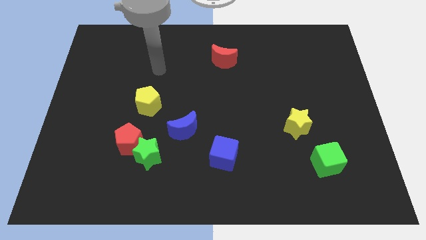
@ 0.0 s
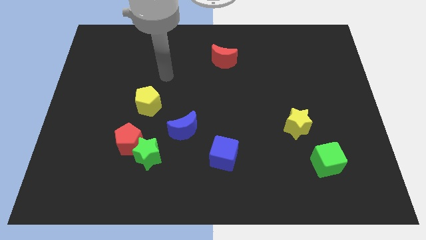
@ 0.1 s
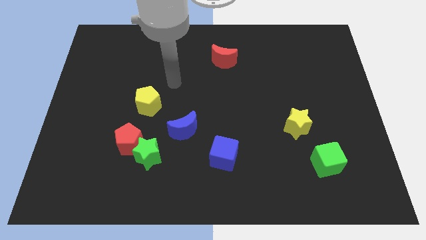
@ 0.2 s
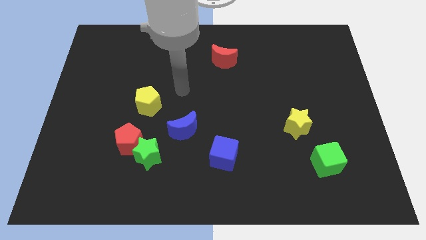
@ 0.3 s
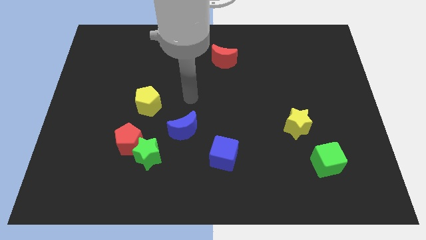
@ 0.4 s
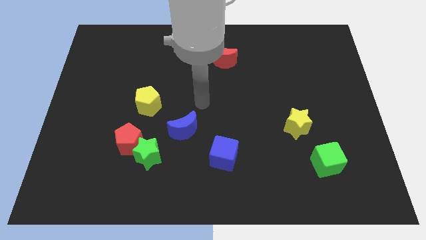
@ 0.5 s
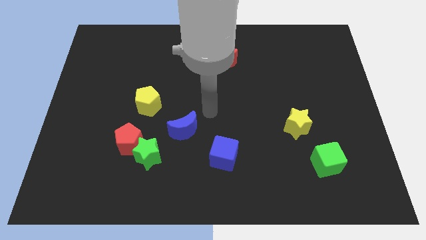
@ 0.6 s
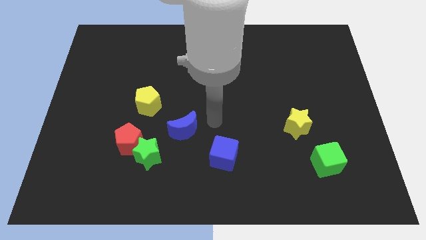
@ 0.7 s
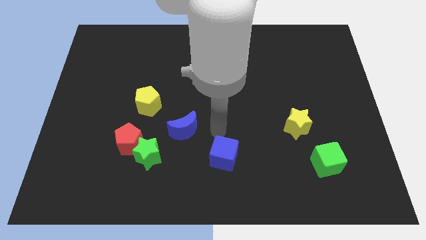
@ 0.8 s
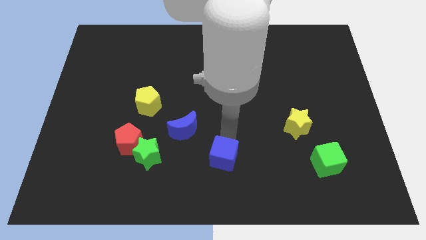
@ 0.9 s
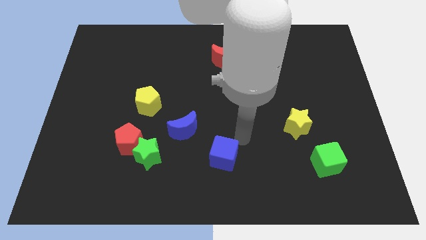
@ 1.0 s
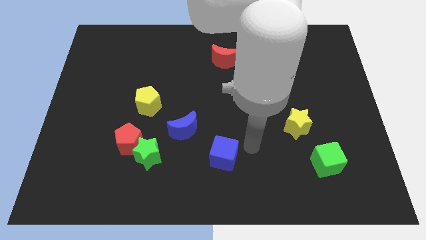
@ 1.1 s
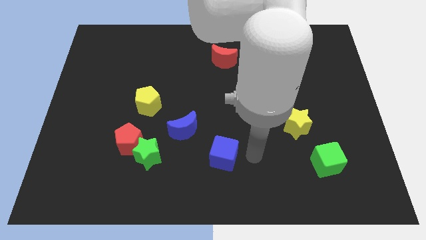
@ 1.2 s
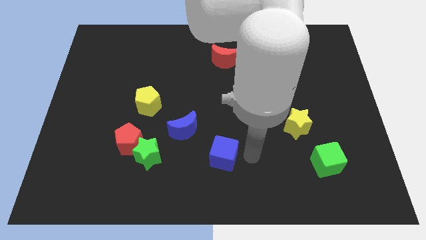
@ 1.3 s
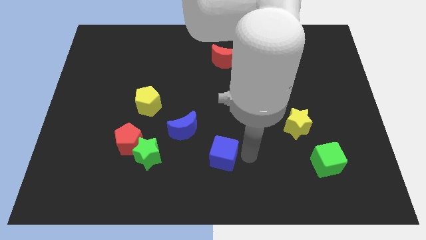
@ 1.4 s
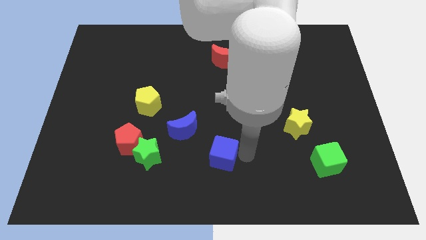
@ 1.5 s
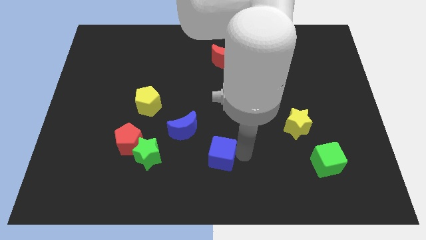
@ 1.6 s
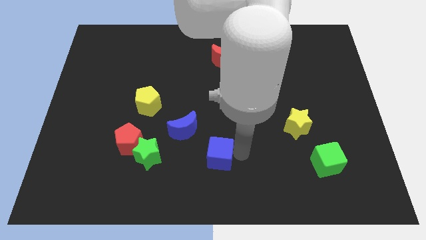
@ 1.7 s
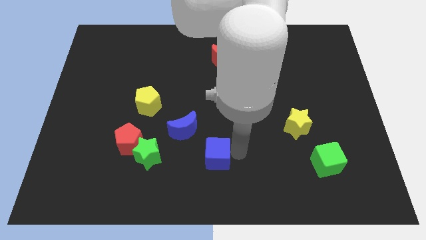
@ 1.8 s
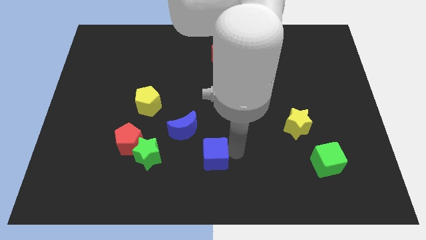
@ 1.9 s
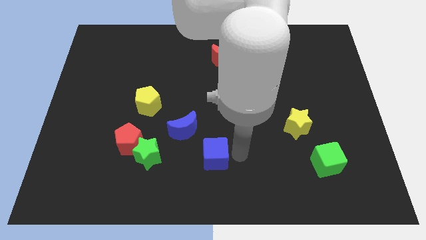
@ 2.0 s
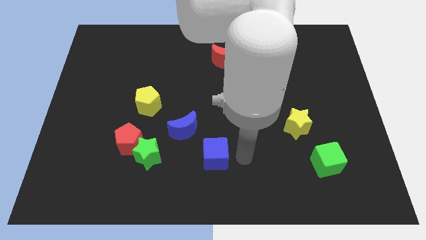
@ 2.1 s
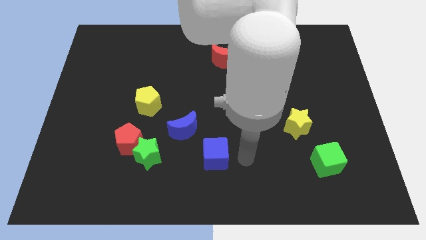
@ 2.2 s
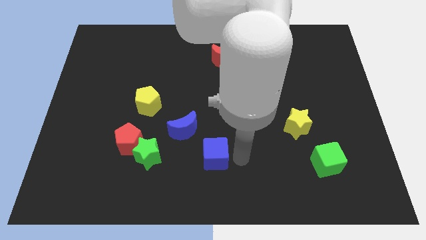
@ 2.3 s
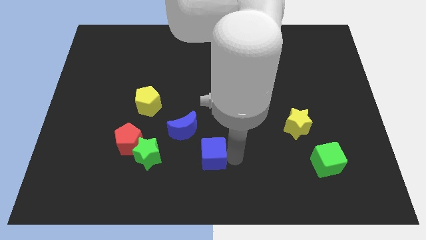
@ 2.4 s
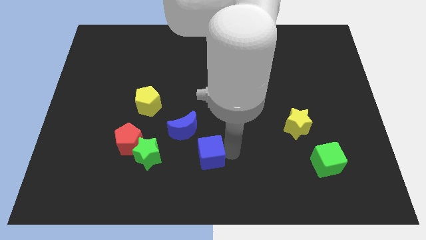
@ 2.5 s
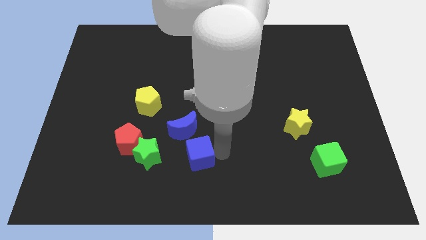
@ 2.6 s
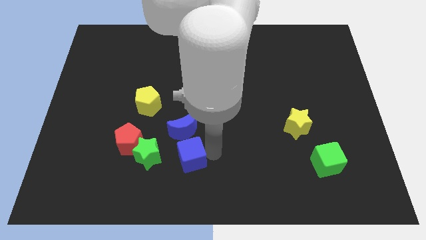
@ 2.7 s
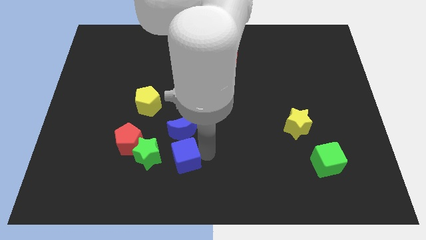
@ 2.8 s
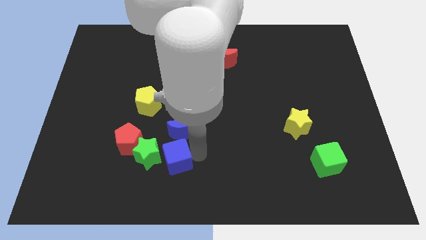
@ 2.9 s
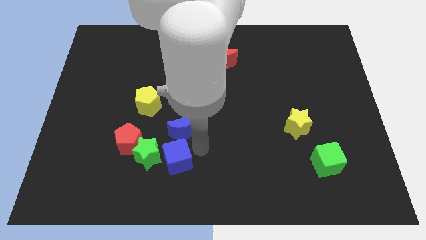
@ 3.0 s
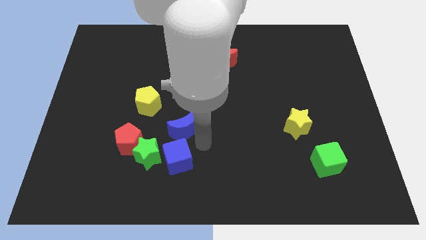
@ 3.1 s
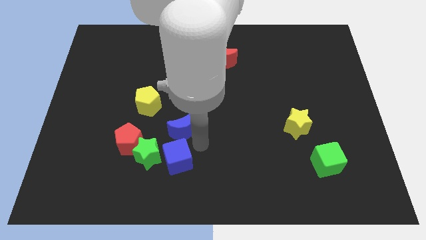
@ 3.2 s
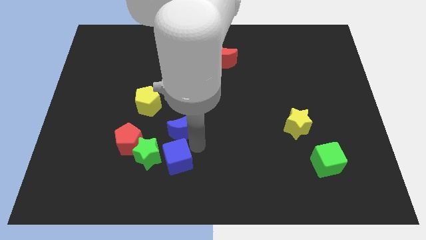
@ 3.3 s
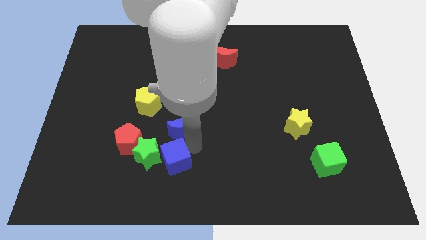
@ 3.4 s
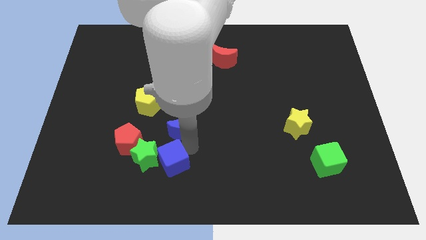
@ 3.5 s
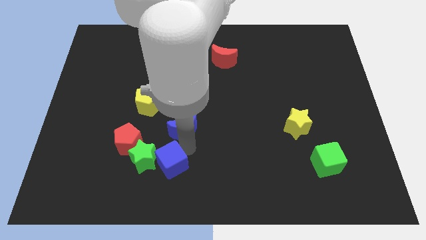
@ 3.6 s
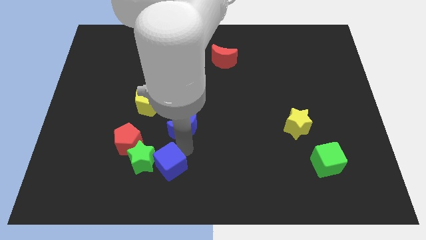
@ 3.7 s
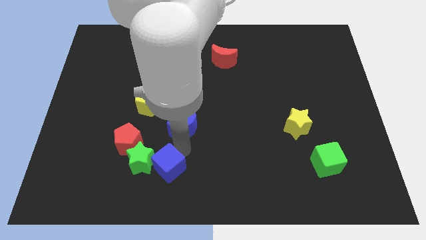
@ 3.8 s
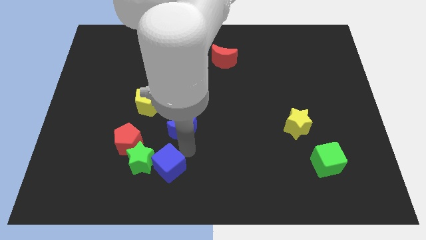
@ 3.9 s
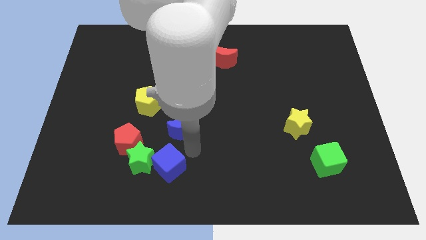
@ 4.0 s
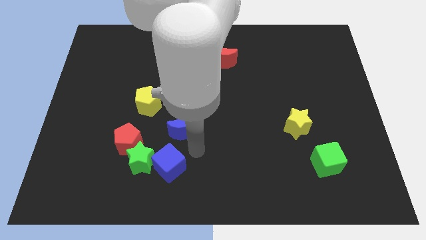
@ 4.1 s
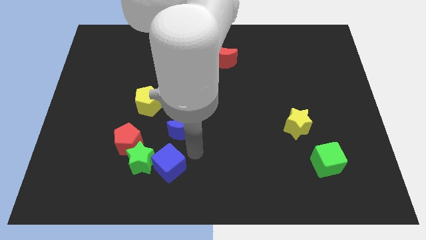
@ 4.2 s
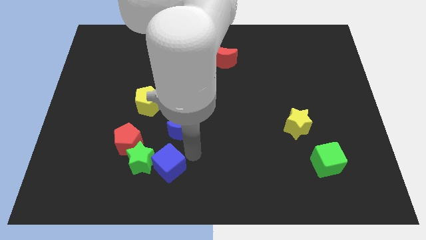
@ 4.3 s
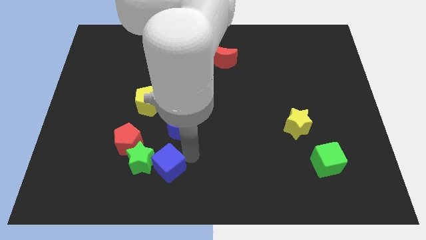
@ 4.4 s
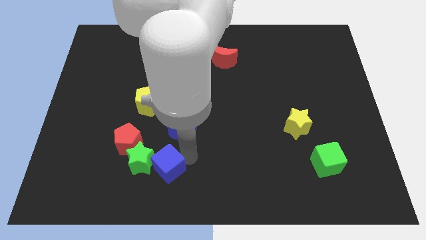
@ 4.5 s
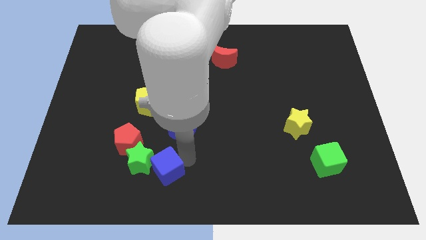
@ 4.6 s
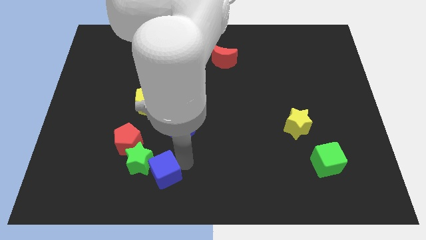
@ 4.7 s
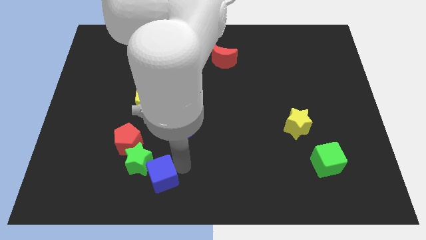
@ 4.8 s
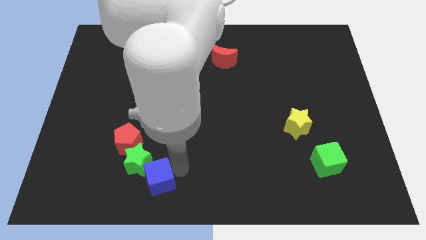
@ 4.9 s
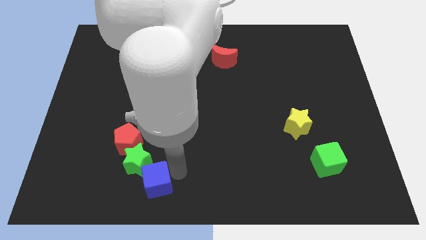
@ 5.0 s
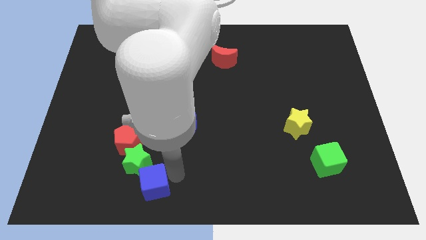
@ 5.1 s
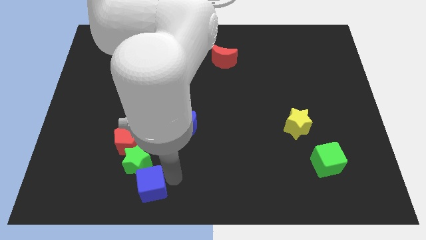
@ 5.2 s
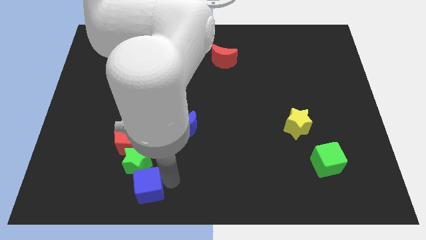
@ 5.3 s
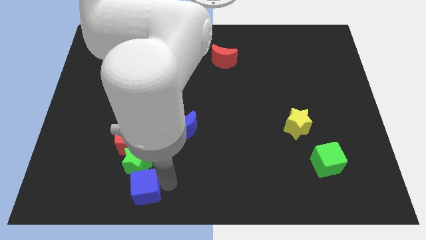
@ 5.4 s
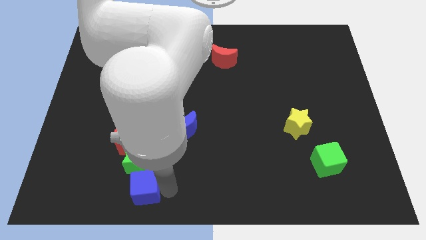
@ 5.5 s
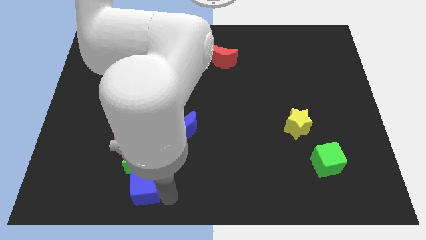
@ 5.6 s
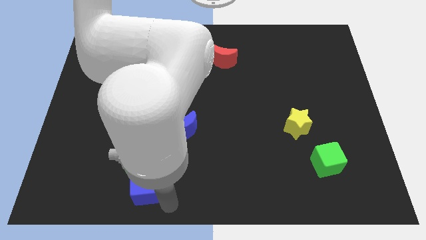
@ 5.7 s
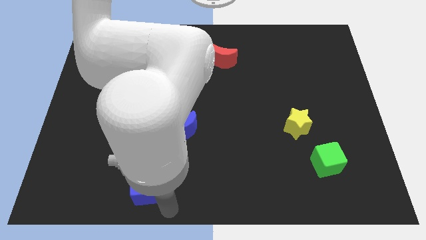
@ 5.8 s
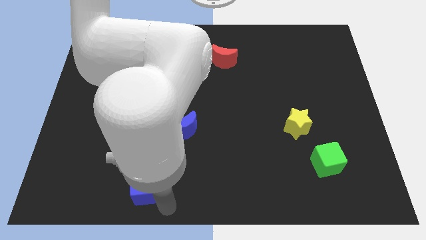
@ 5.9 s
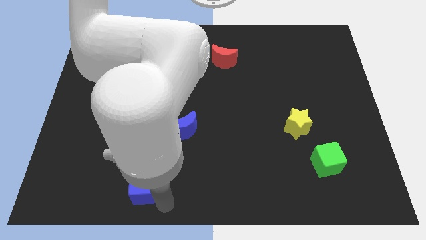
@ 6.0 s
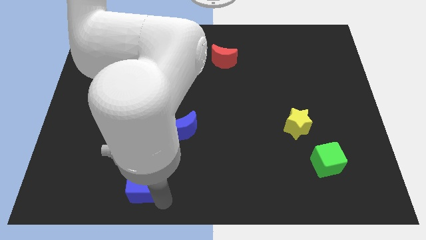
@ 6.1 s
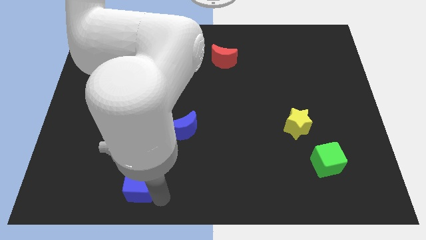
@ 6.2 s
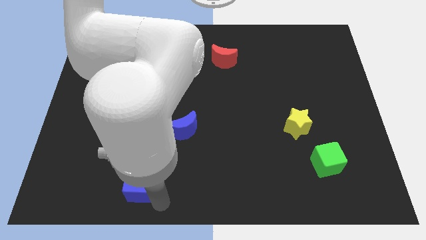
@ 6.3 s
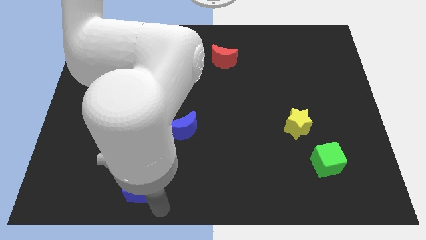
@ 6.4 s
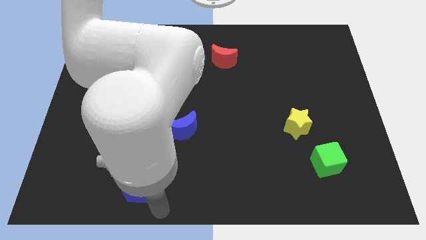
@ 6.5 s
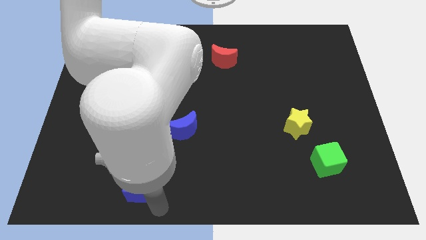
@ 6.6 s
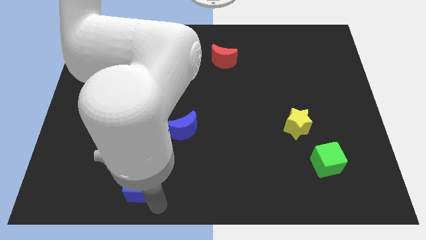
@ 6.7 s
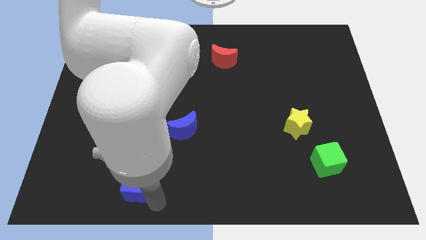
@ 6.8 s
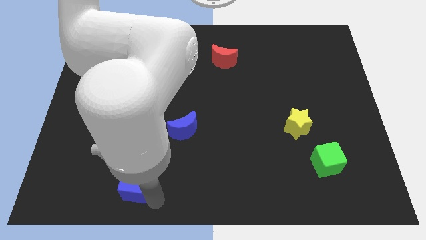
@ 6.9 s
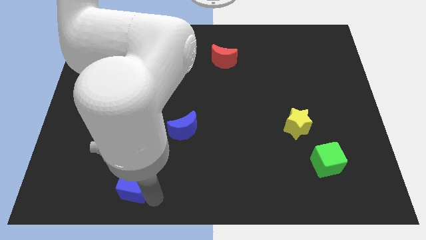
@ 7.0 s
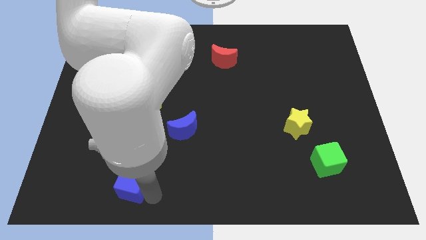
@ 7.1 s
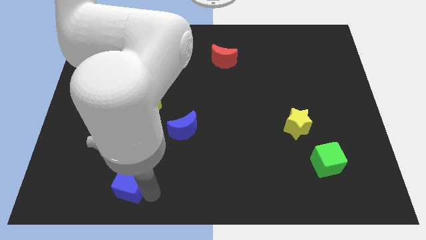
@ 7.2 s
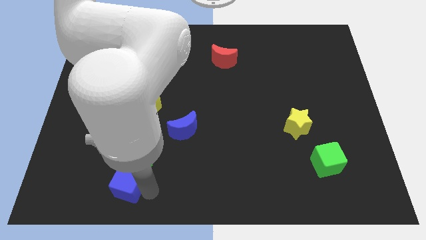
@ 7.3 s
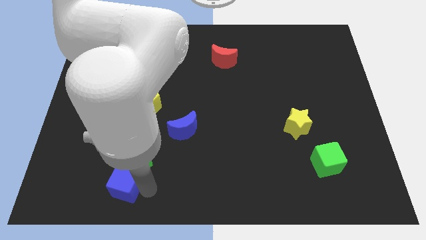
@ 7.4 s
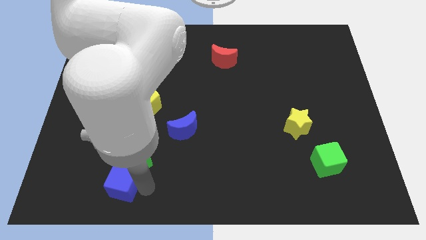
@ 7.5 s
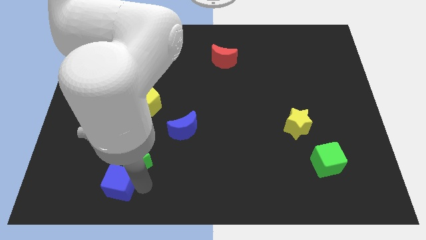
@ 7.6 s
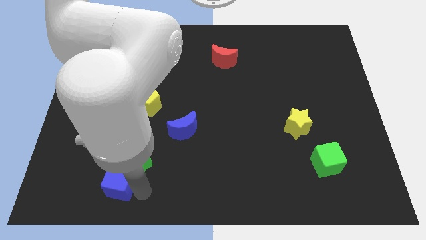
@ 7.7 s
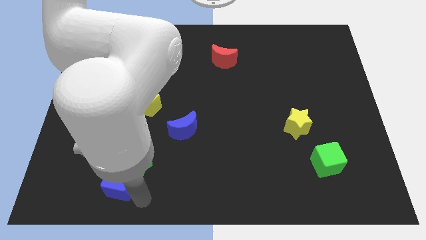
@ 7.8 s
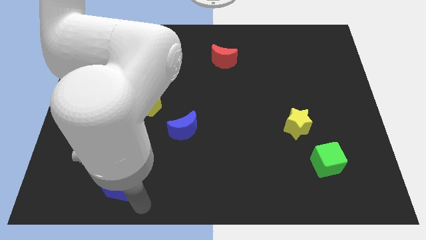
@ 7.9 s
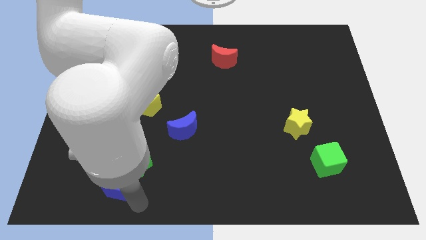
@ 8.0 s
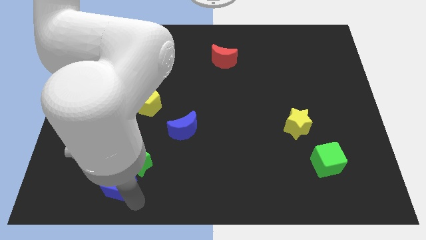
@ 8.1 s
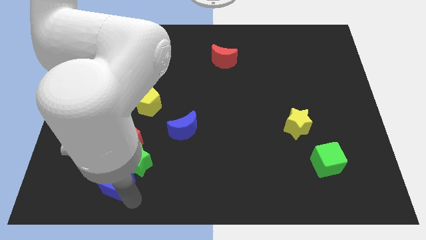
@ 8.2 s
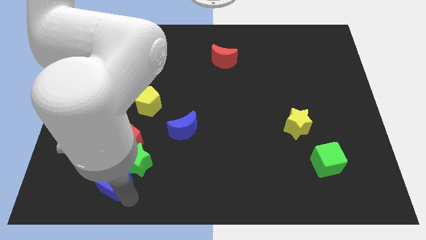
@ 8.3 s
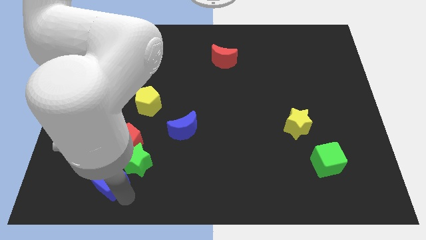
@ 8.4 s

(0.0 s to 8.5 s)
push the blue cube to the bottom left side of the red pentagon
